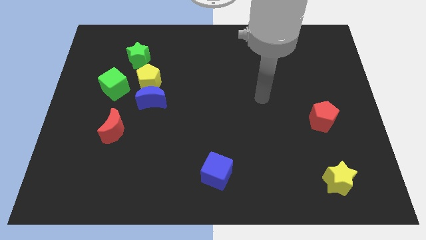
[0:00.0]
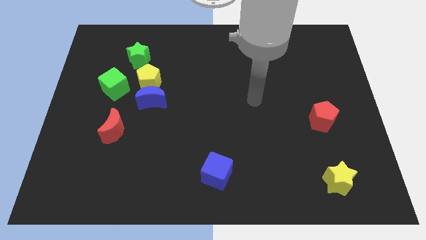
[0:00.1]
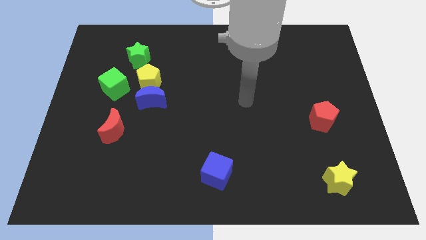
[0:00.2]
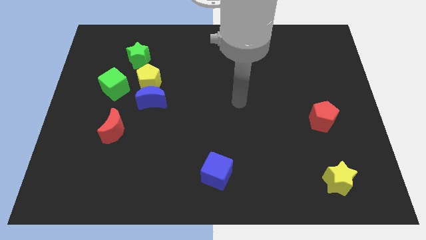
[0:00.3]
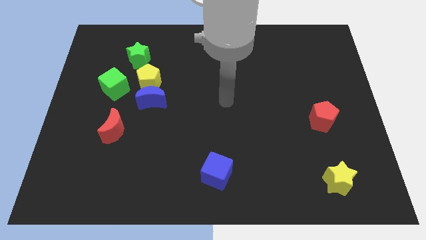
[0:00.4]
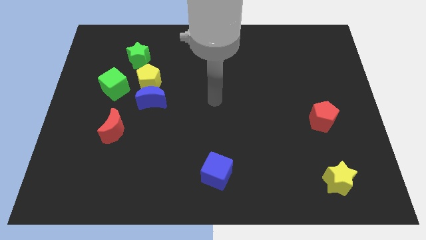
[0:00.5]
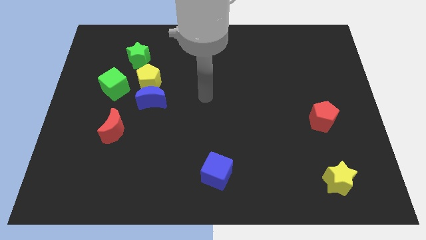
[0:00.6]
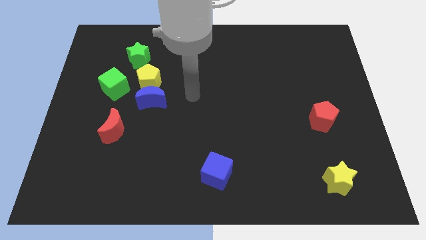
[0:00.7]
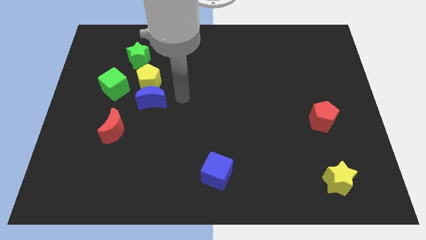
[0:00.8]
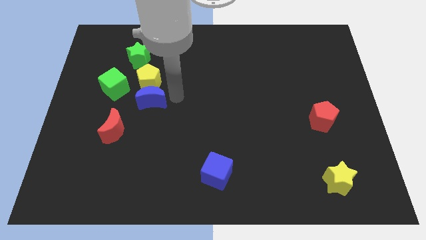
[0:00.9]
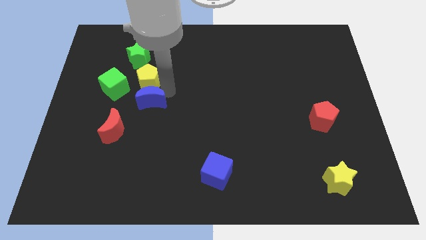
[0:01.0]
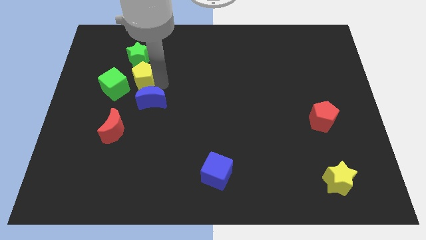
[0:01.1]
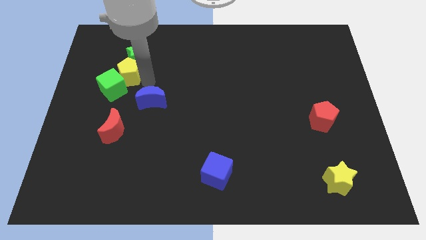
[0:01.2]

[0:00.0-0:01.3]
move the blue moon away from the yellow pentagon

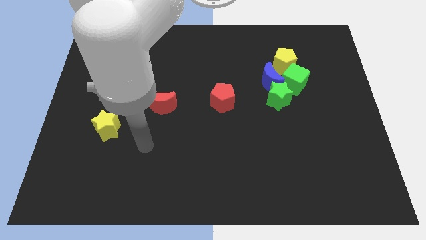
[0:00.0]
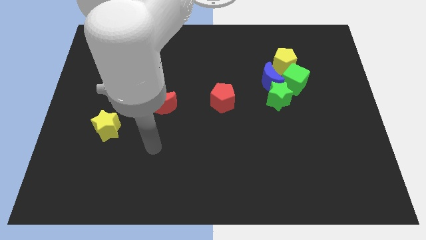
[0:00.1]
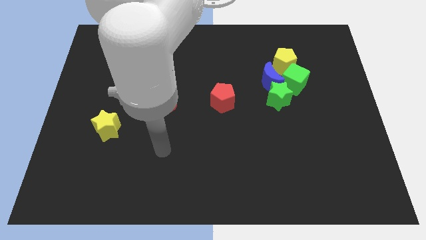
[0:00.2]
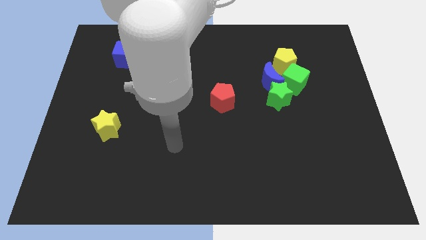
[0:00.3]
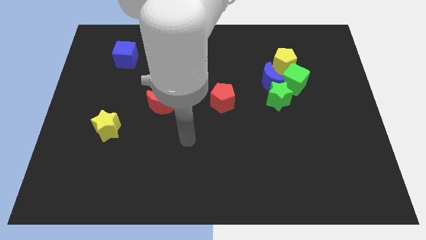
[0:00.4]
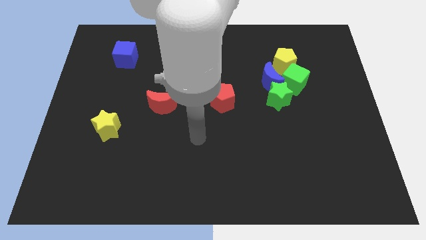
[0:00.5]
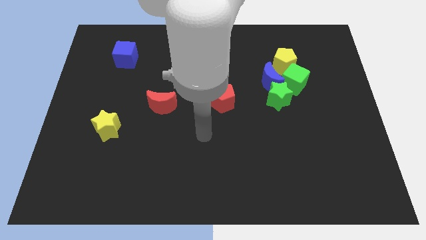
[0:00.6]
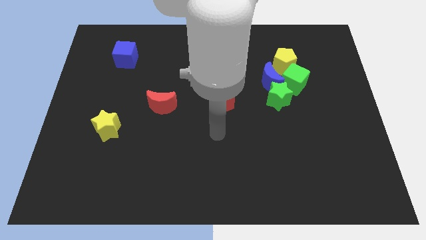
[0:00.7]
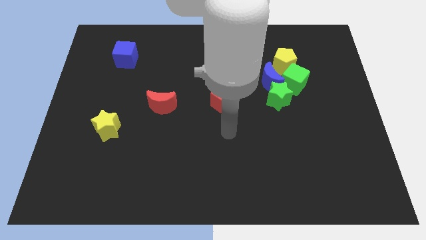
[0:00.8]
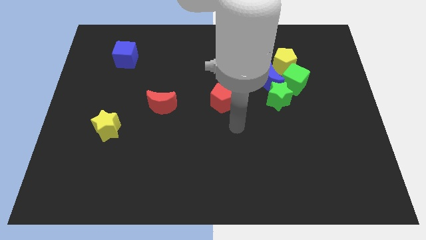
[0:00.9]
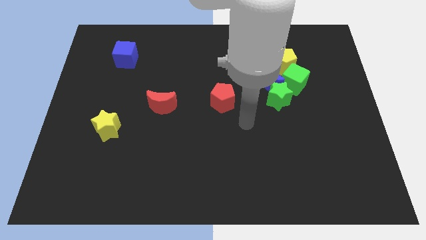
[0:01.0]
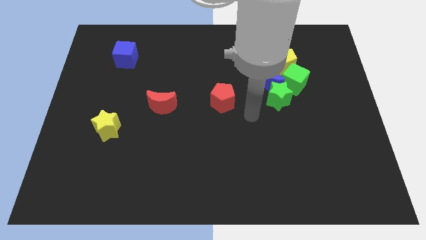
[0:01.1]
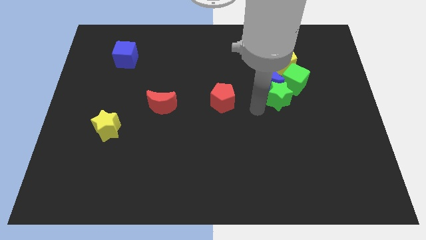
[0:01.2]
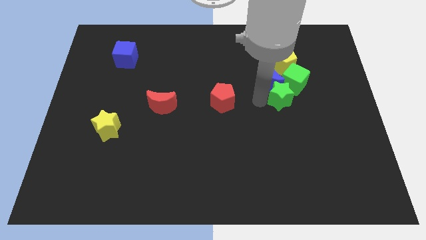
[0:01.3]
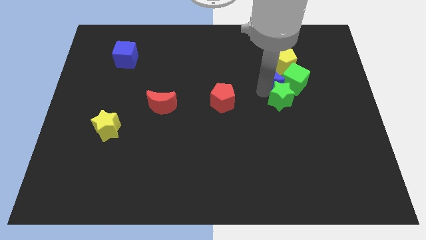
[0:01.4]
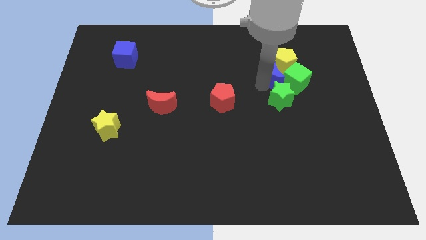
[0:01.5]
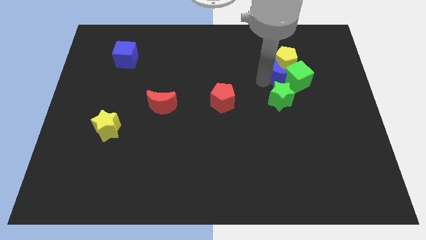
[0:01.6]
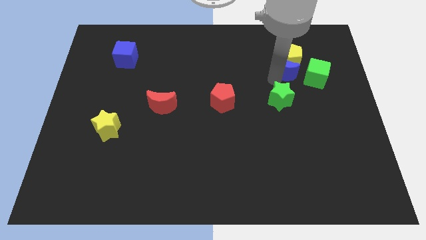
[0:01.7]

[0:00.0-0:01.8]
pull the green star apart from the blue moon and green cube

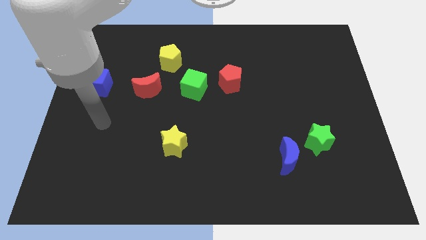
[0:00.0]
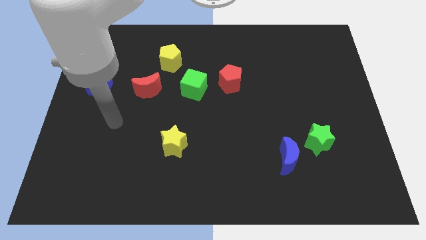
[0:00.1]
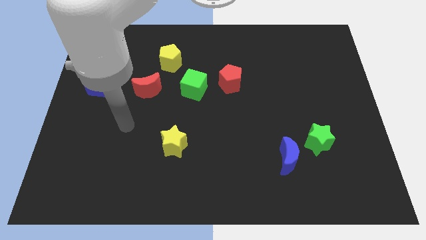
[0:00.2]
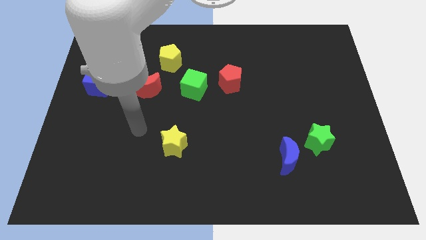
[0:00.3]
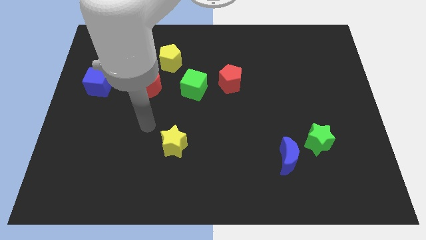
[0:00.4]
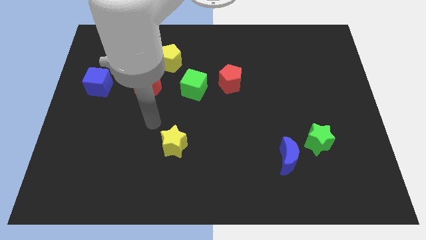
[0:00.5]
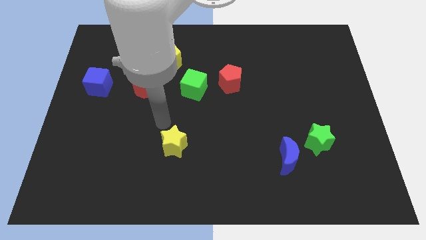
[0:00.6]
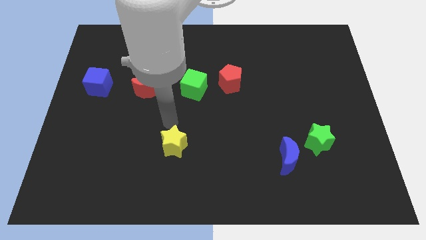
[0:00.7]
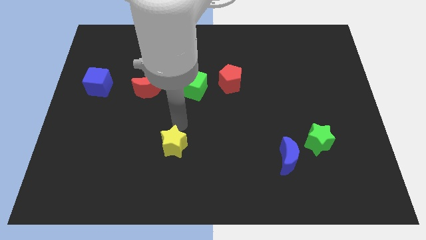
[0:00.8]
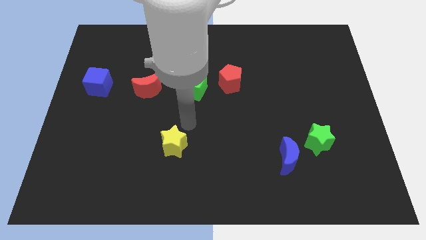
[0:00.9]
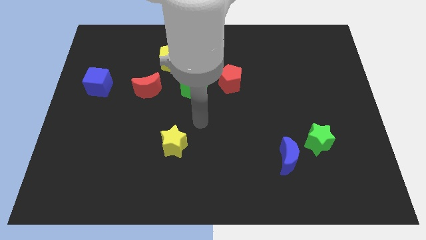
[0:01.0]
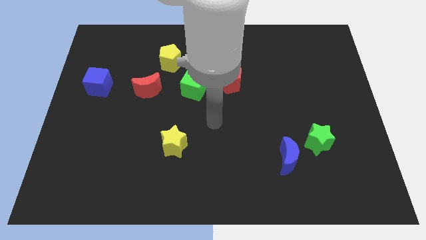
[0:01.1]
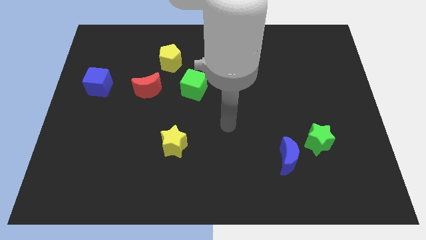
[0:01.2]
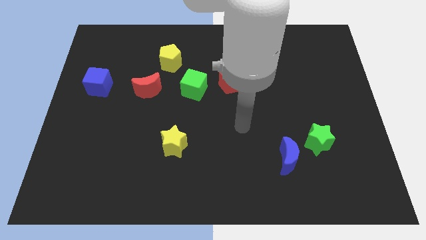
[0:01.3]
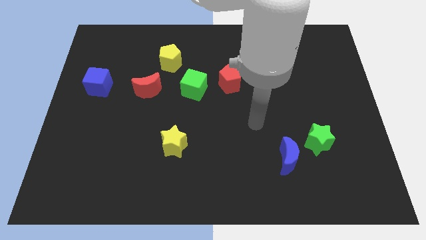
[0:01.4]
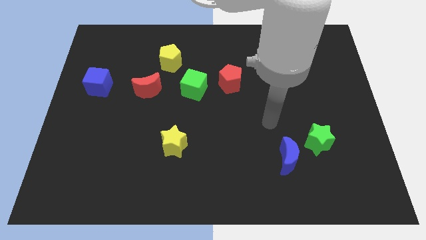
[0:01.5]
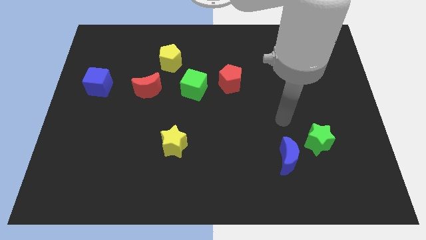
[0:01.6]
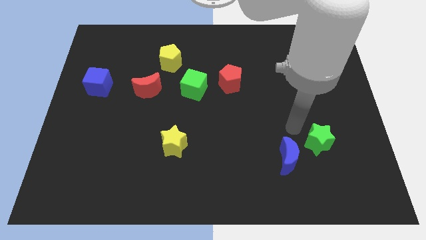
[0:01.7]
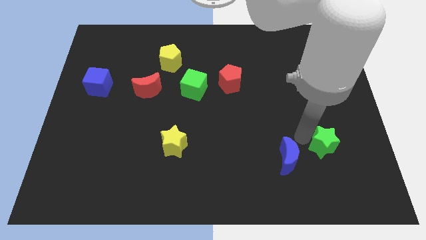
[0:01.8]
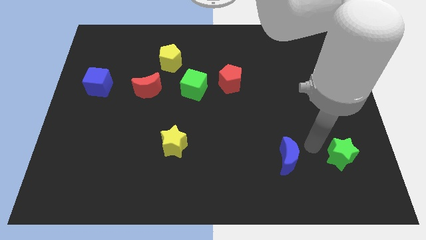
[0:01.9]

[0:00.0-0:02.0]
pull the blue moon apart from the green star

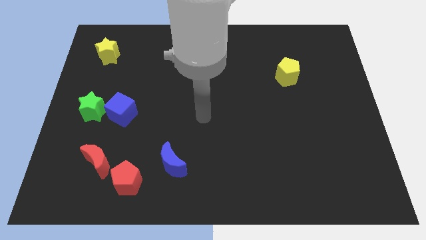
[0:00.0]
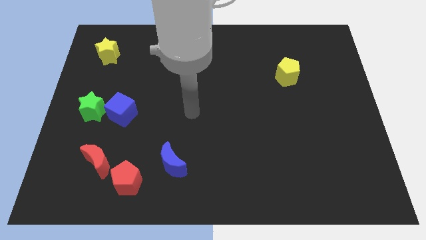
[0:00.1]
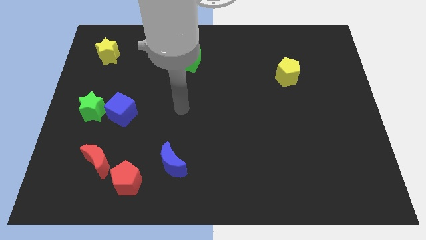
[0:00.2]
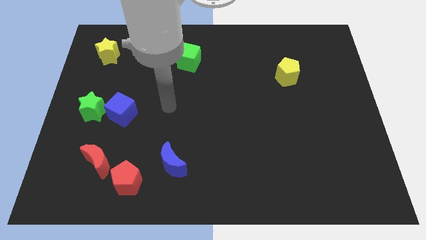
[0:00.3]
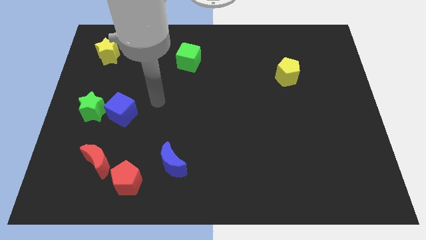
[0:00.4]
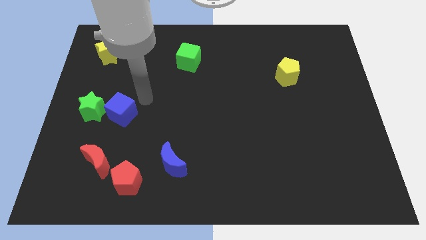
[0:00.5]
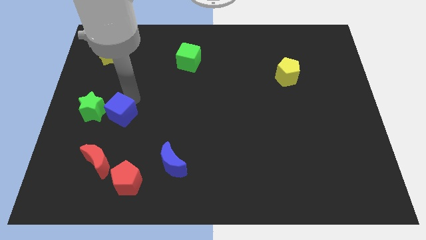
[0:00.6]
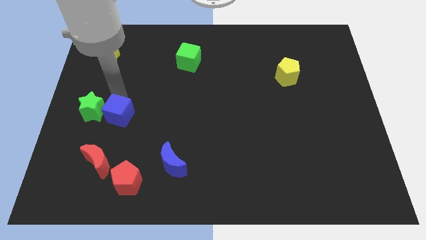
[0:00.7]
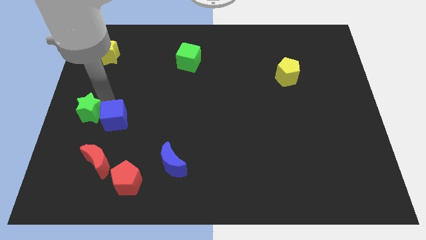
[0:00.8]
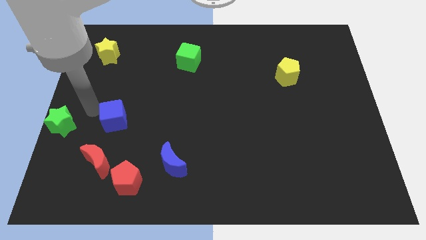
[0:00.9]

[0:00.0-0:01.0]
pull the blue cube apart from the green star

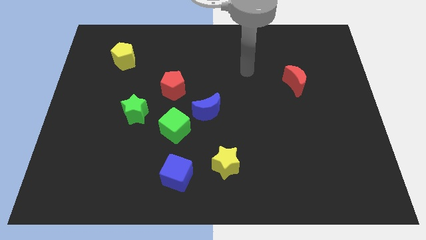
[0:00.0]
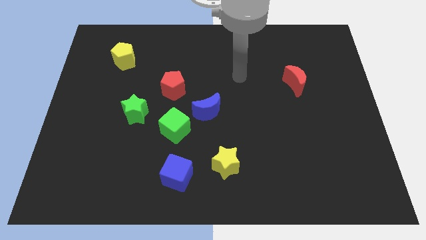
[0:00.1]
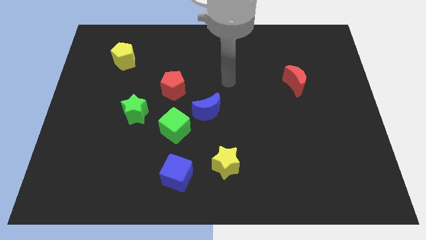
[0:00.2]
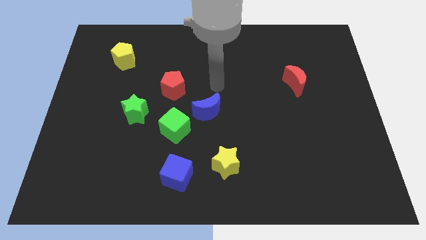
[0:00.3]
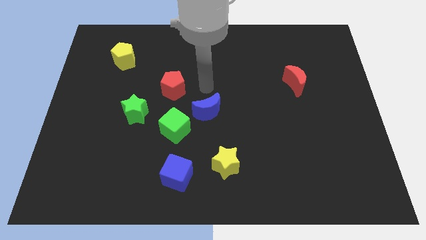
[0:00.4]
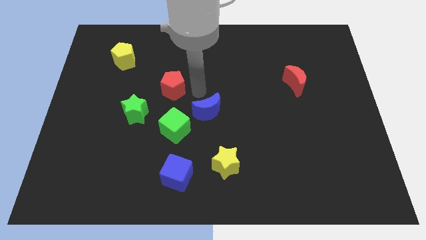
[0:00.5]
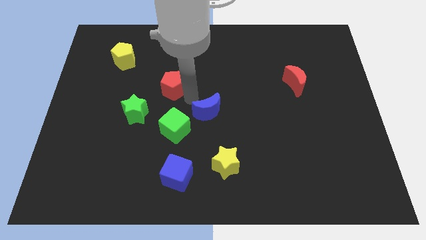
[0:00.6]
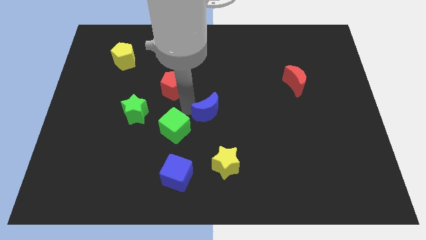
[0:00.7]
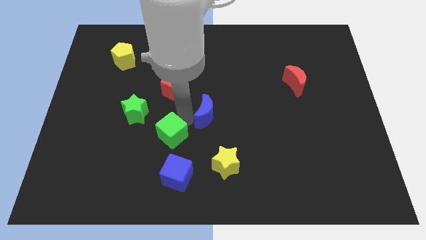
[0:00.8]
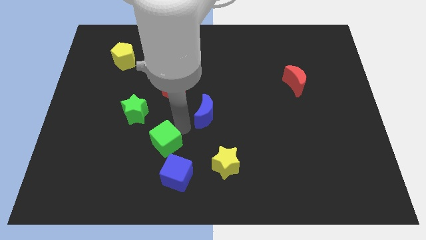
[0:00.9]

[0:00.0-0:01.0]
separate the blue moon from the green cube

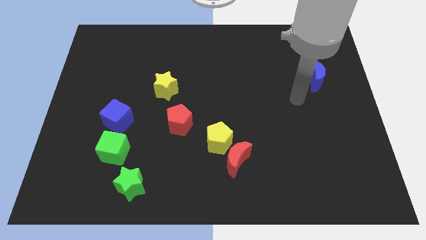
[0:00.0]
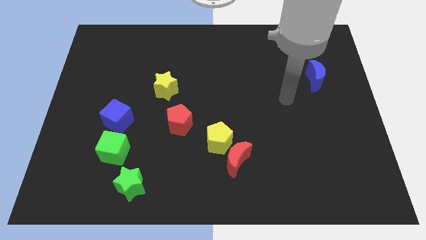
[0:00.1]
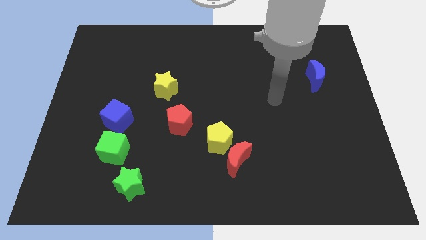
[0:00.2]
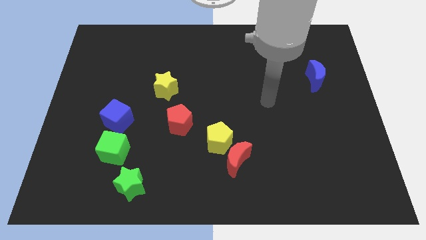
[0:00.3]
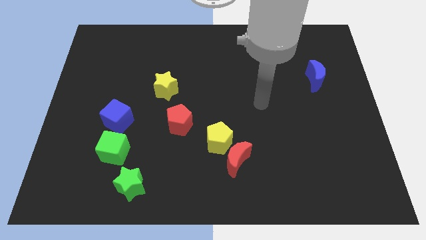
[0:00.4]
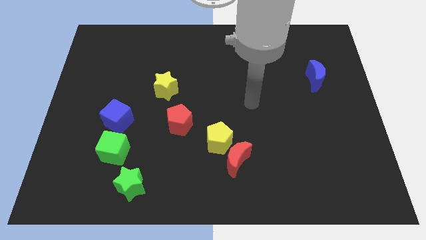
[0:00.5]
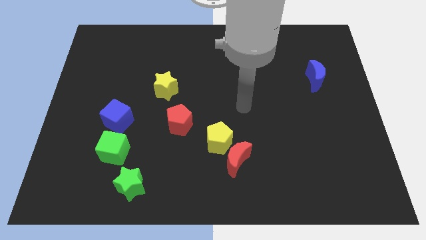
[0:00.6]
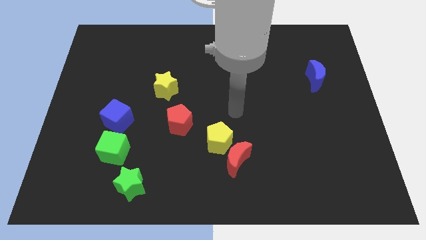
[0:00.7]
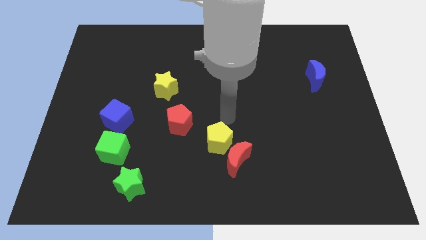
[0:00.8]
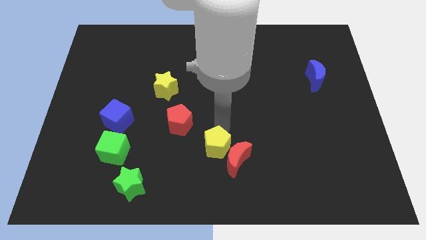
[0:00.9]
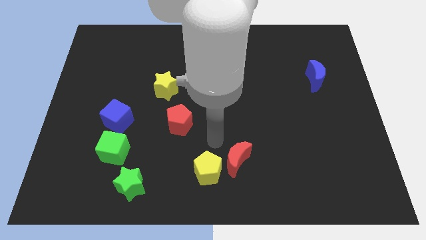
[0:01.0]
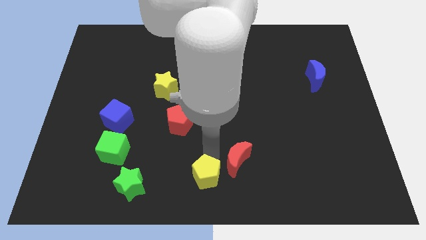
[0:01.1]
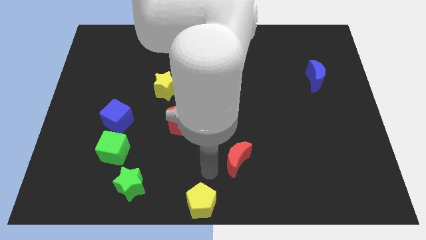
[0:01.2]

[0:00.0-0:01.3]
separate the red moon from the yellow pentagon

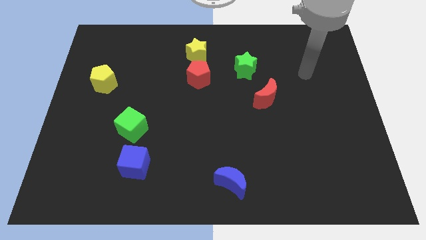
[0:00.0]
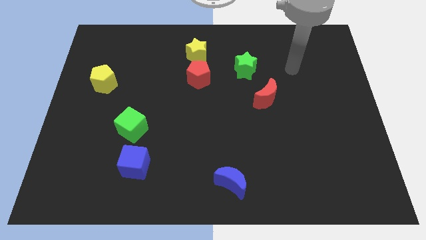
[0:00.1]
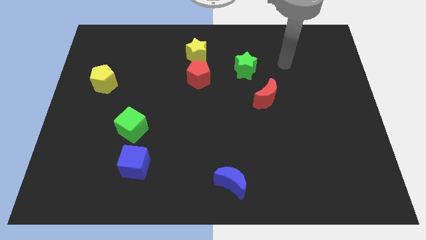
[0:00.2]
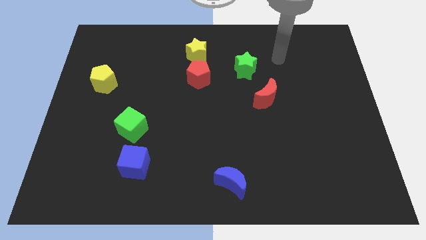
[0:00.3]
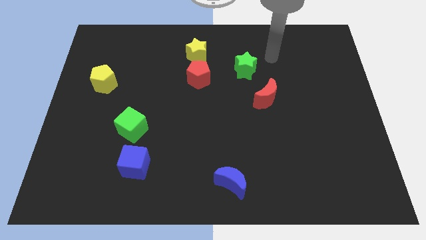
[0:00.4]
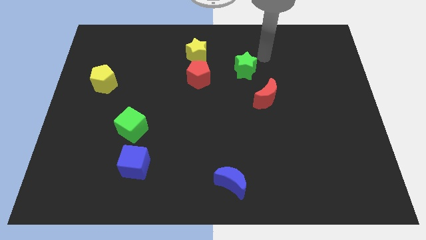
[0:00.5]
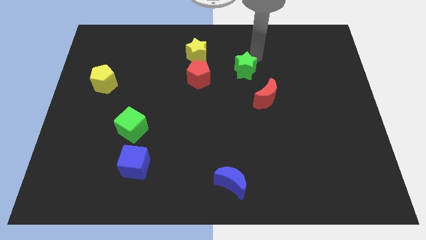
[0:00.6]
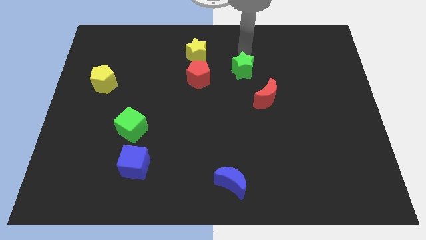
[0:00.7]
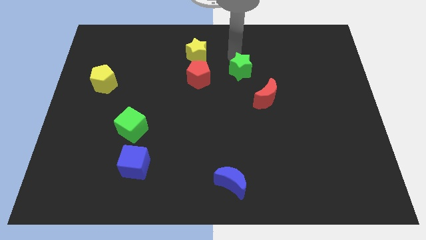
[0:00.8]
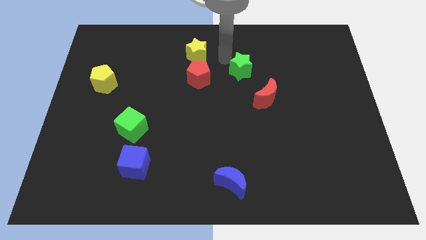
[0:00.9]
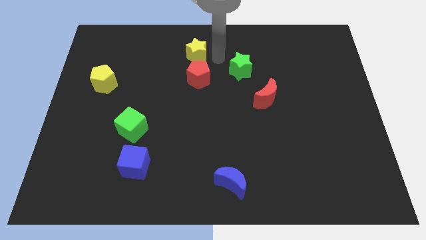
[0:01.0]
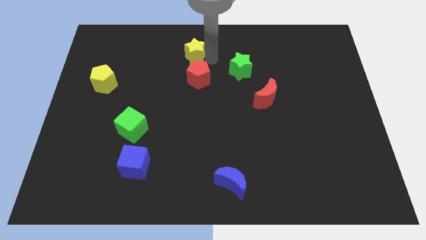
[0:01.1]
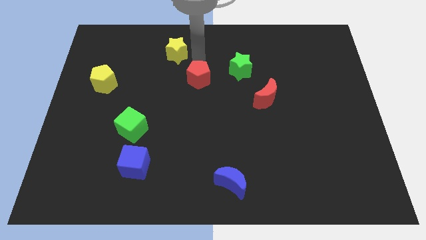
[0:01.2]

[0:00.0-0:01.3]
move the red pentagon away from the yellow star
